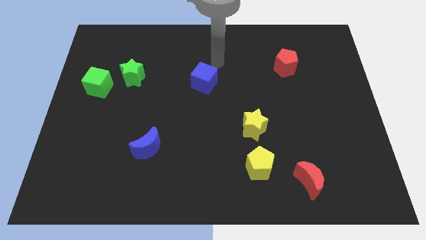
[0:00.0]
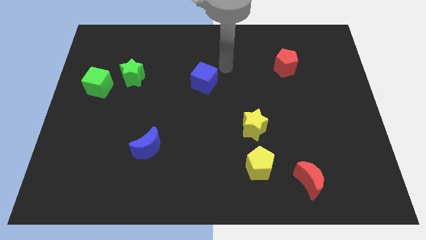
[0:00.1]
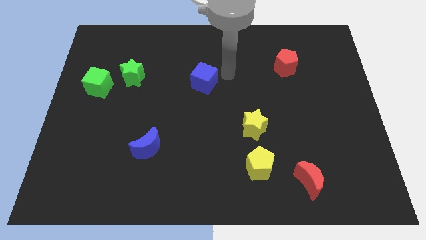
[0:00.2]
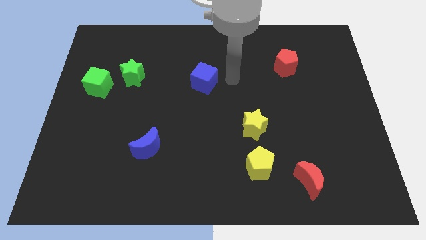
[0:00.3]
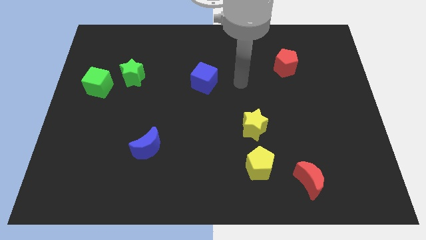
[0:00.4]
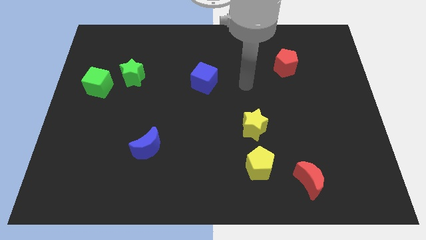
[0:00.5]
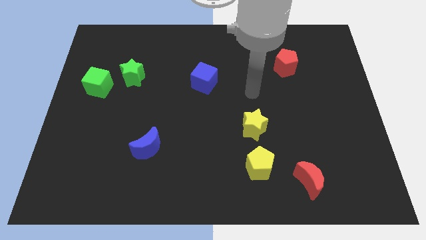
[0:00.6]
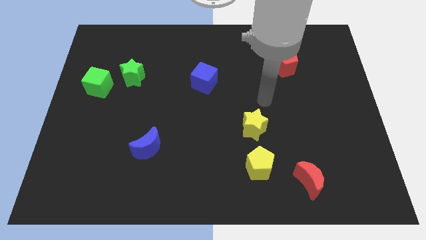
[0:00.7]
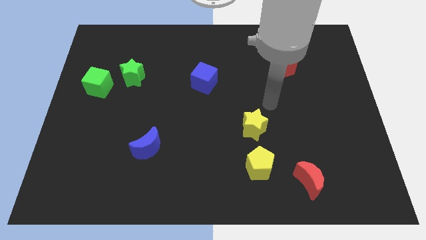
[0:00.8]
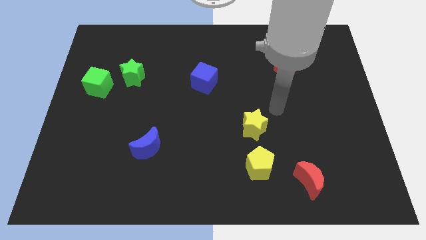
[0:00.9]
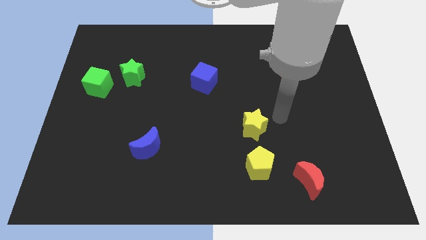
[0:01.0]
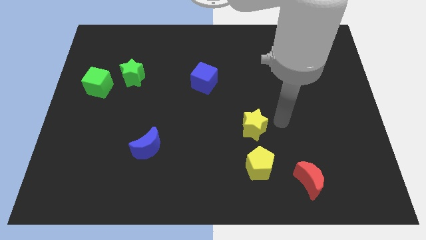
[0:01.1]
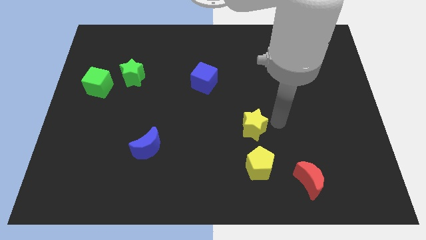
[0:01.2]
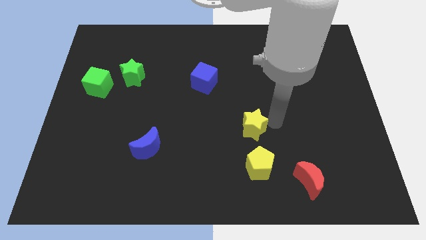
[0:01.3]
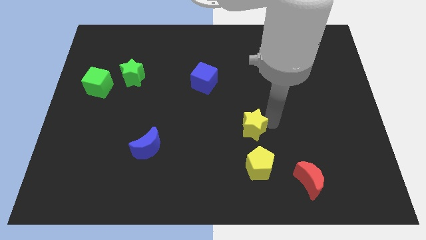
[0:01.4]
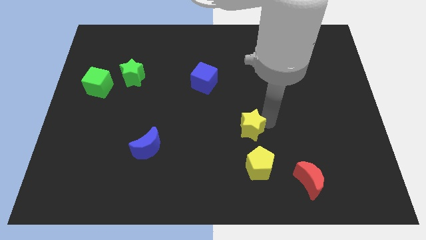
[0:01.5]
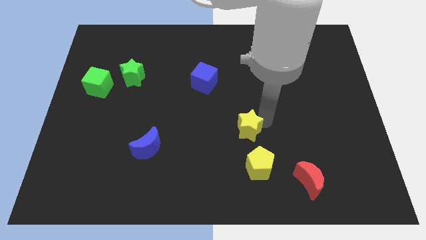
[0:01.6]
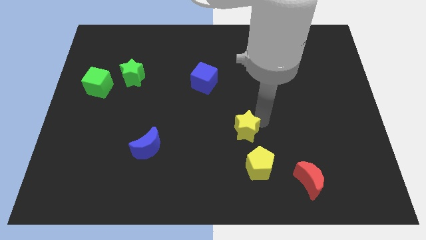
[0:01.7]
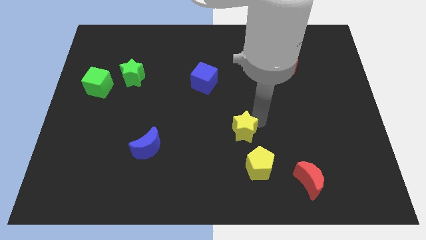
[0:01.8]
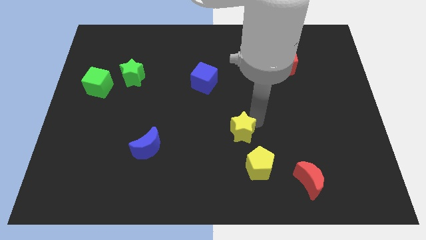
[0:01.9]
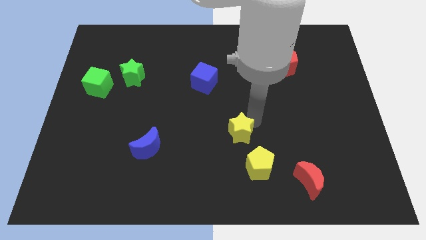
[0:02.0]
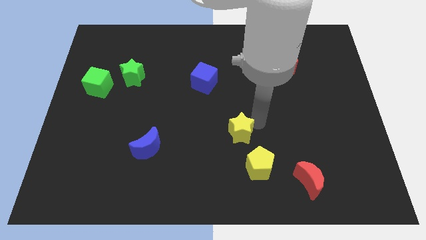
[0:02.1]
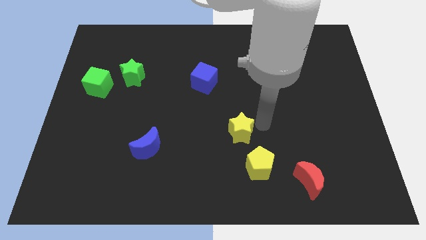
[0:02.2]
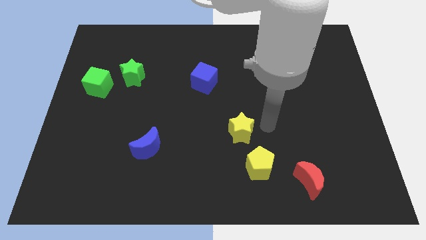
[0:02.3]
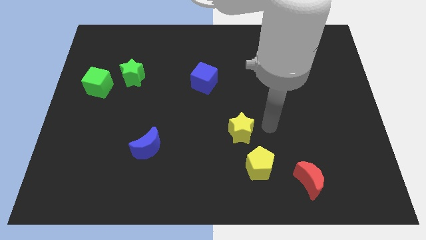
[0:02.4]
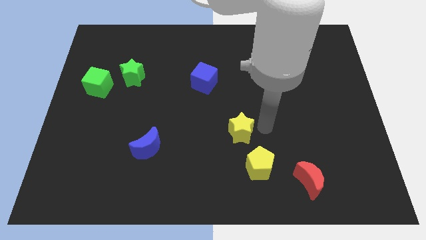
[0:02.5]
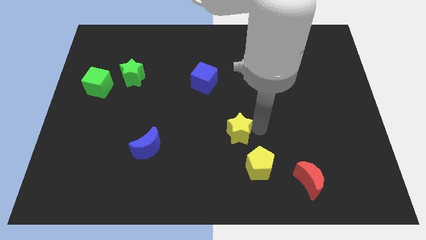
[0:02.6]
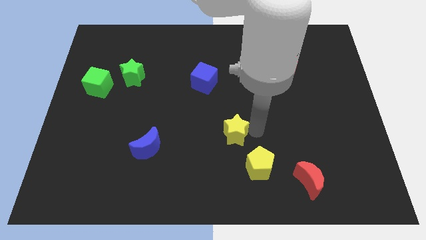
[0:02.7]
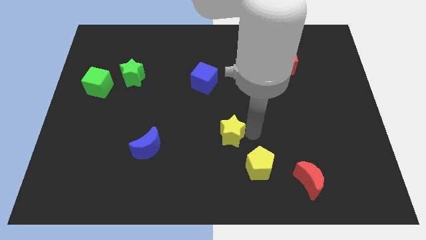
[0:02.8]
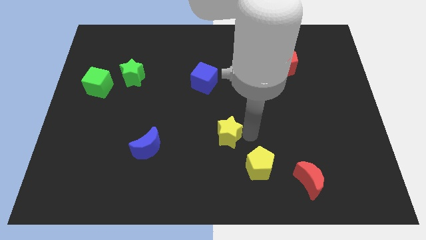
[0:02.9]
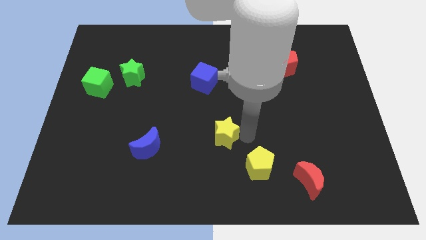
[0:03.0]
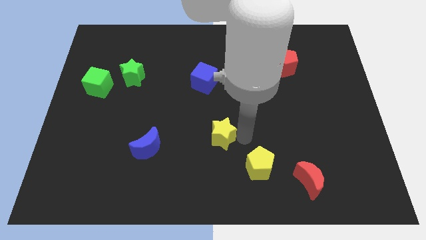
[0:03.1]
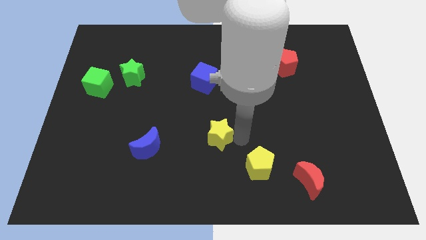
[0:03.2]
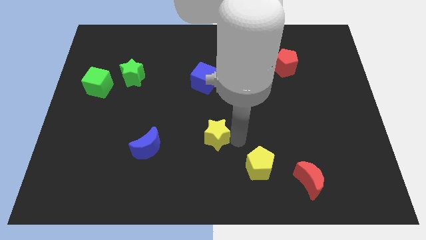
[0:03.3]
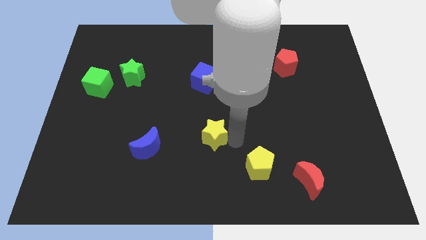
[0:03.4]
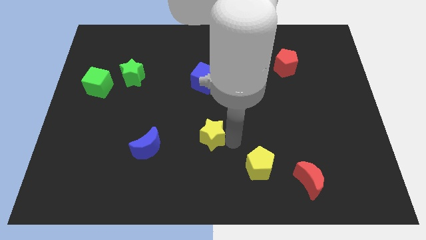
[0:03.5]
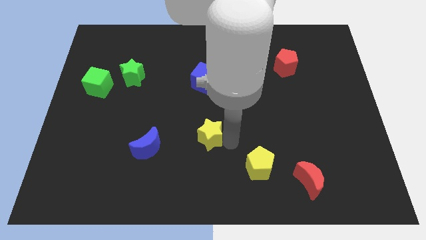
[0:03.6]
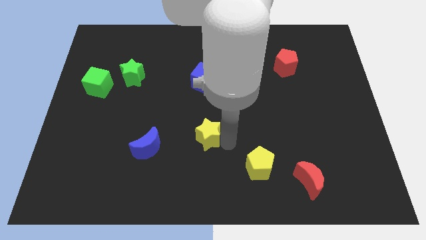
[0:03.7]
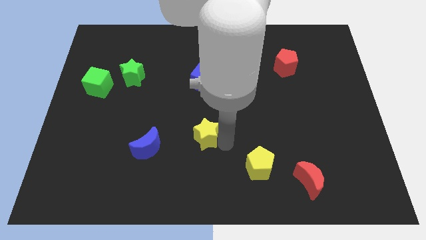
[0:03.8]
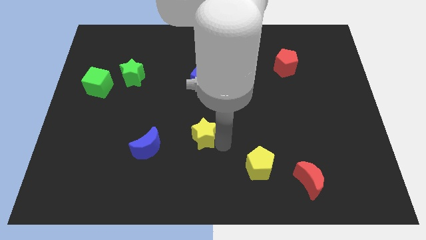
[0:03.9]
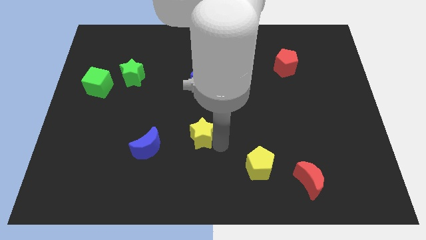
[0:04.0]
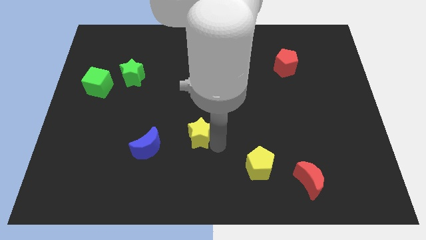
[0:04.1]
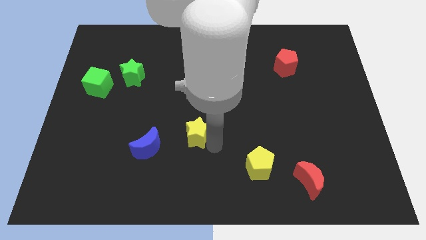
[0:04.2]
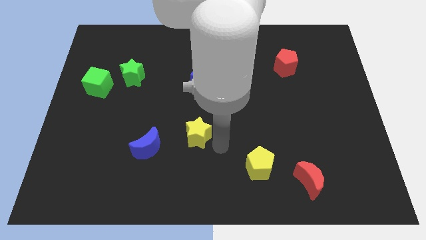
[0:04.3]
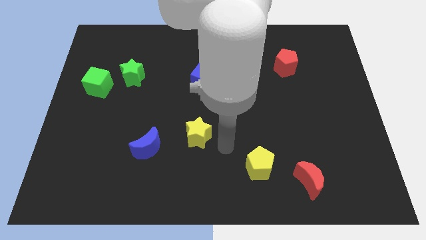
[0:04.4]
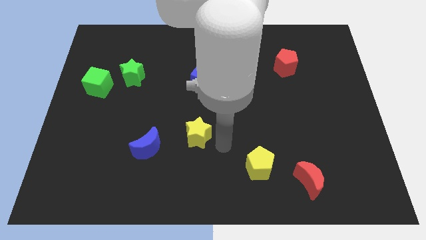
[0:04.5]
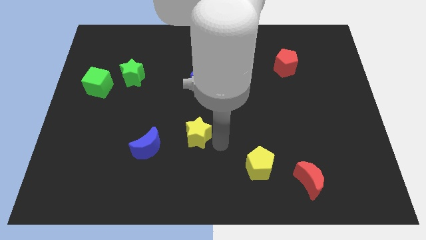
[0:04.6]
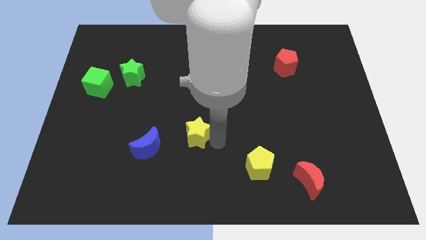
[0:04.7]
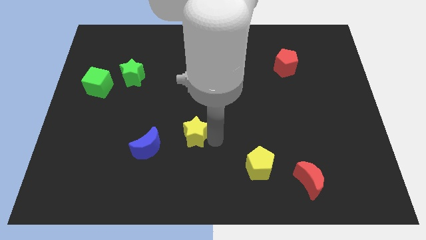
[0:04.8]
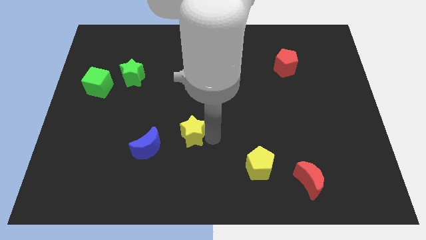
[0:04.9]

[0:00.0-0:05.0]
slide the yellow star diagonally up and to the right of the blue moon

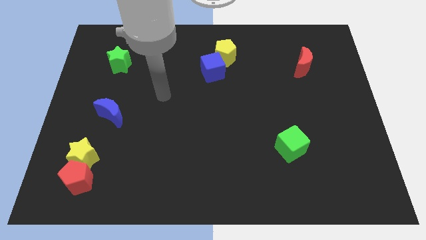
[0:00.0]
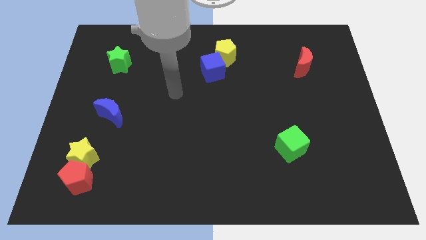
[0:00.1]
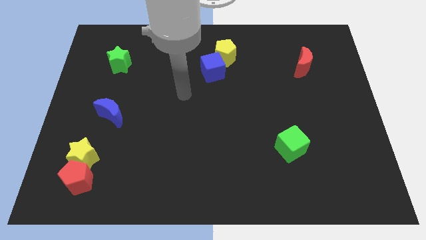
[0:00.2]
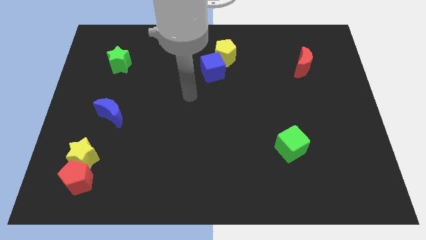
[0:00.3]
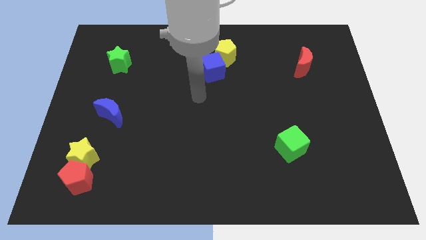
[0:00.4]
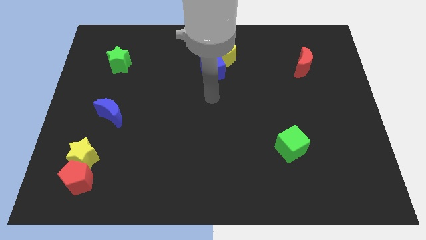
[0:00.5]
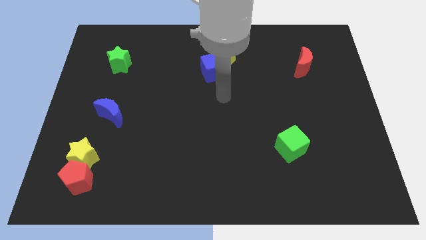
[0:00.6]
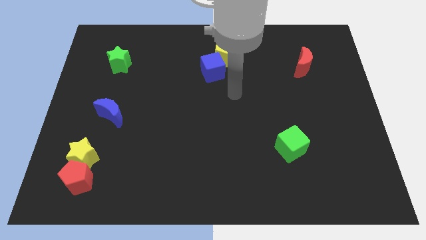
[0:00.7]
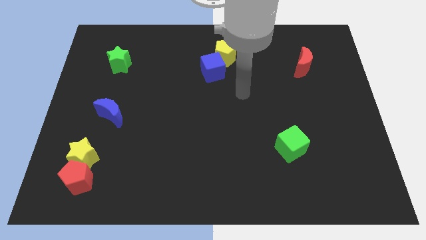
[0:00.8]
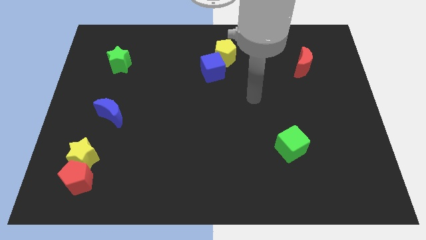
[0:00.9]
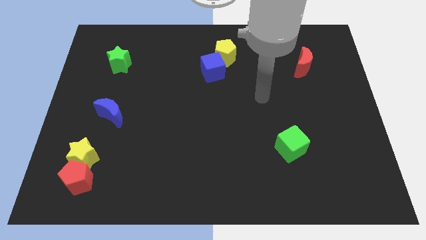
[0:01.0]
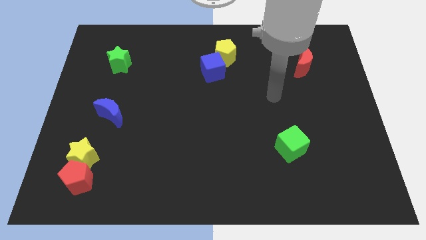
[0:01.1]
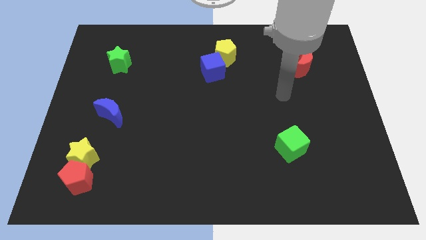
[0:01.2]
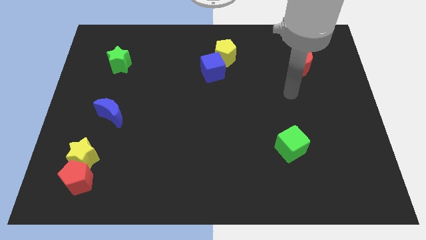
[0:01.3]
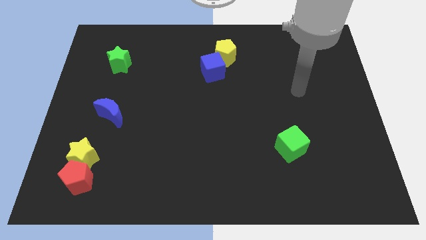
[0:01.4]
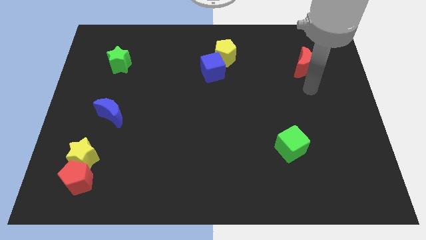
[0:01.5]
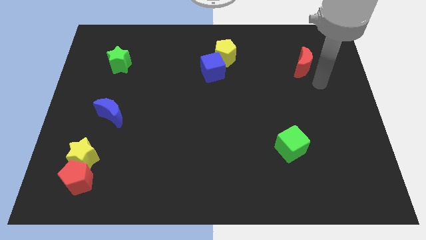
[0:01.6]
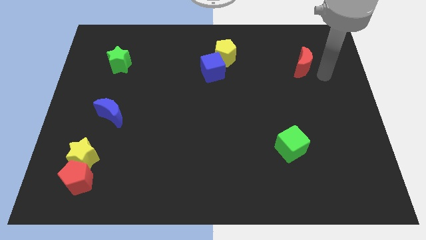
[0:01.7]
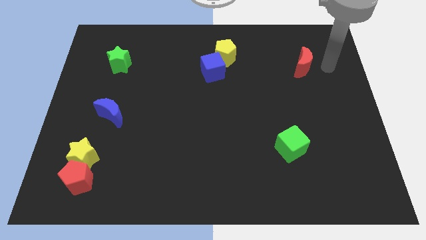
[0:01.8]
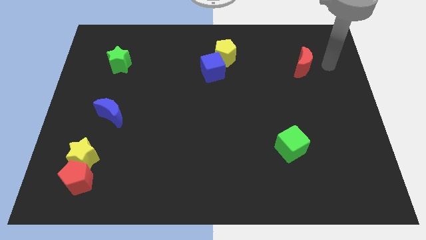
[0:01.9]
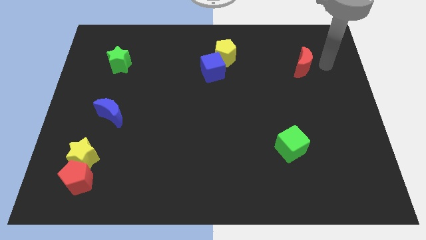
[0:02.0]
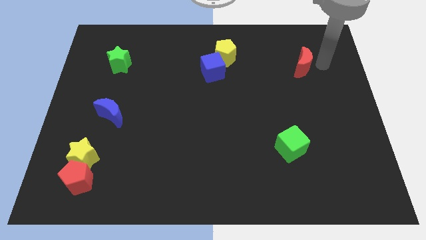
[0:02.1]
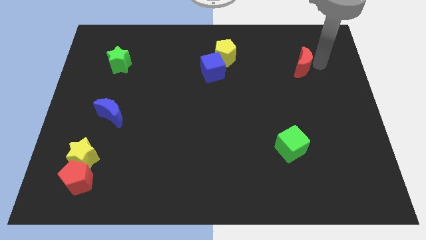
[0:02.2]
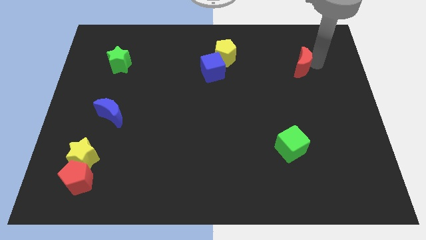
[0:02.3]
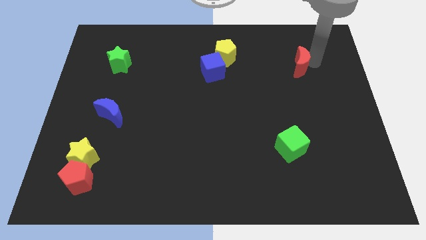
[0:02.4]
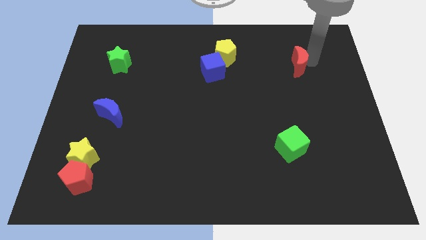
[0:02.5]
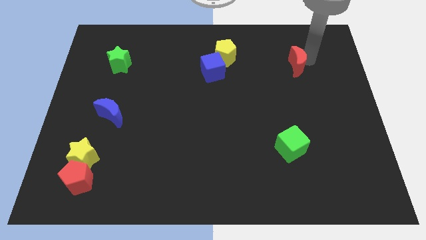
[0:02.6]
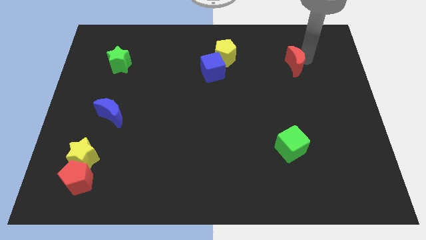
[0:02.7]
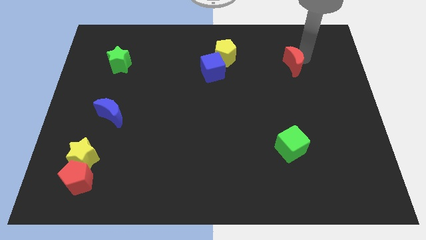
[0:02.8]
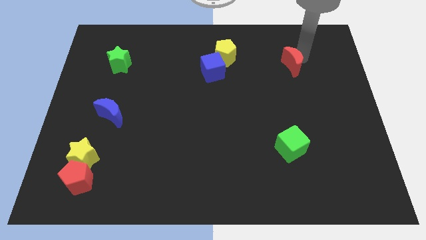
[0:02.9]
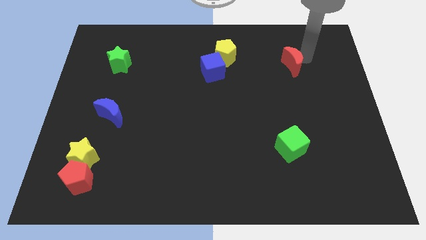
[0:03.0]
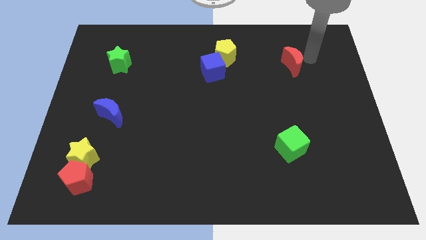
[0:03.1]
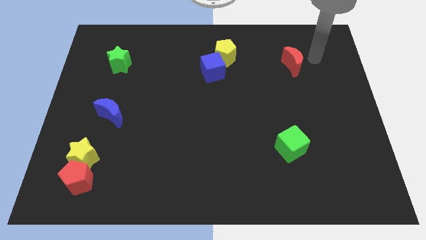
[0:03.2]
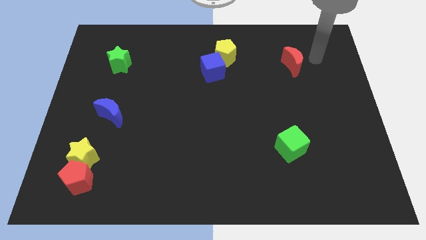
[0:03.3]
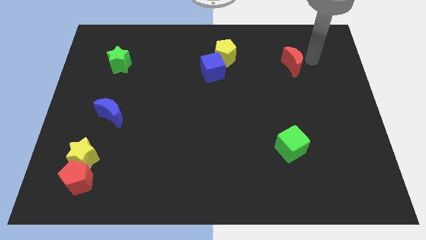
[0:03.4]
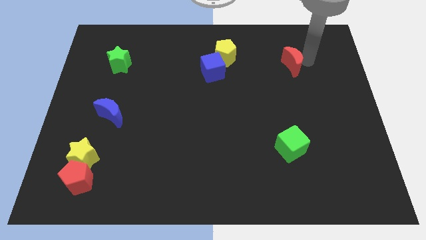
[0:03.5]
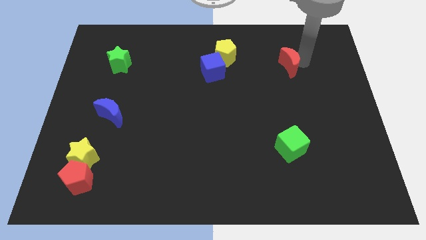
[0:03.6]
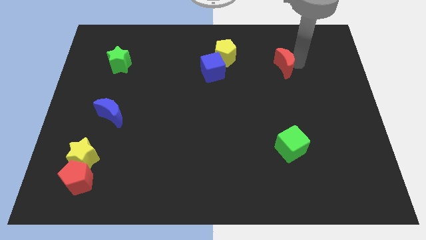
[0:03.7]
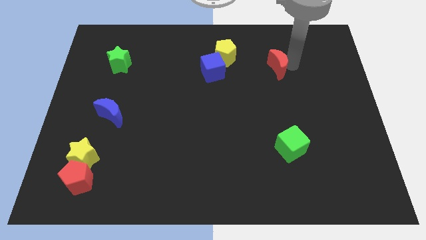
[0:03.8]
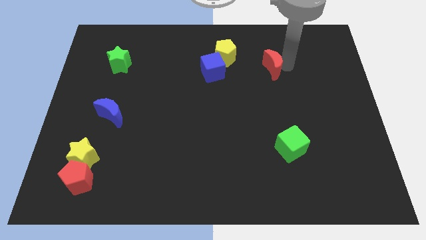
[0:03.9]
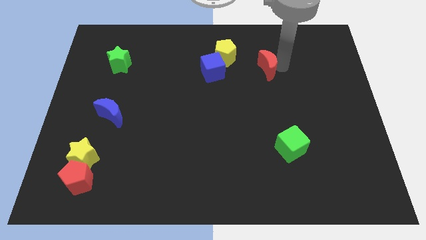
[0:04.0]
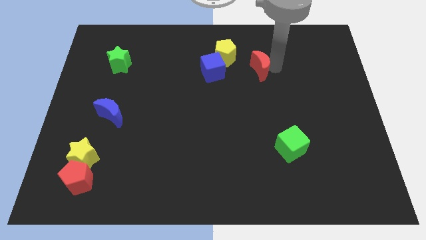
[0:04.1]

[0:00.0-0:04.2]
put the red moon to the bottom right side of the yellow pentagon
